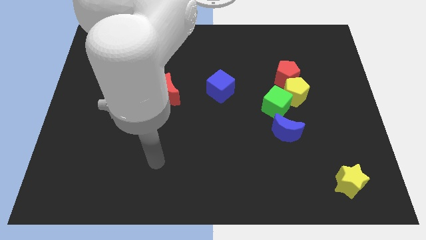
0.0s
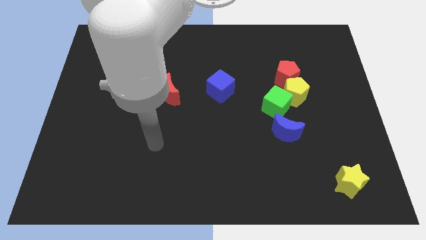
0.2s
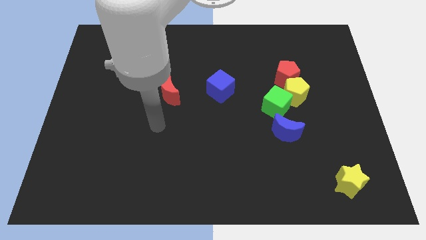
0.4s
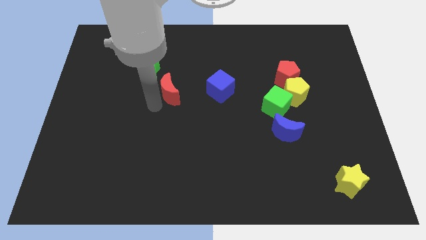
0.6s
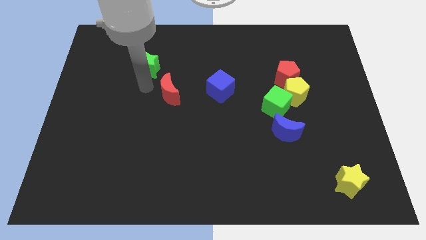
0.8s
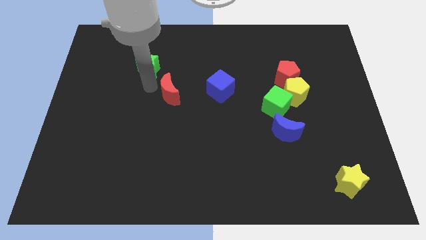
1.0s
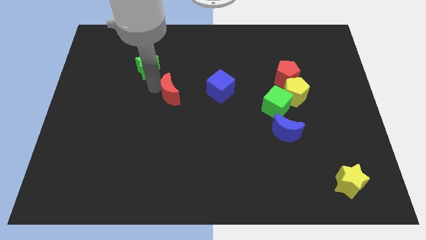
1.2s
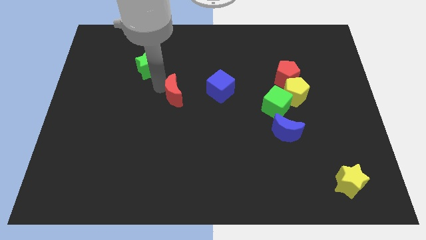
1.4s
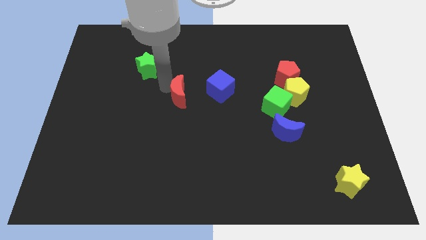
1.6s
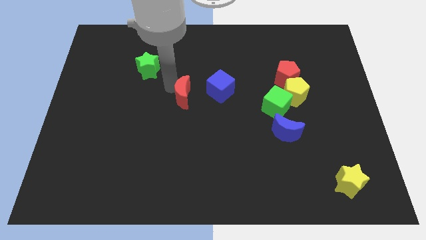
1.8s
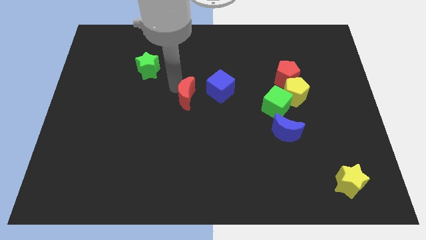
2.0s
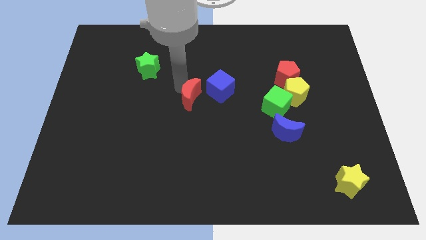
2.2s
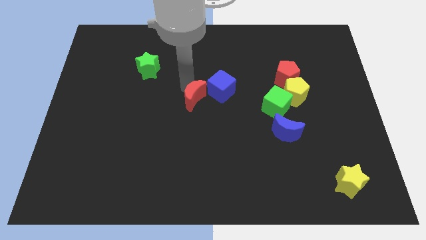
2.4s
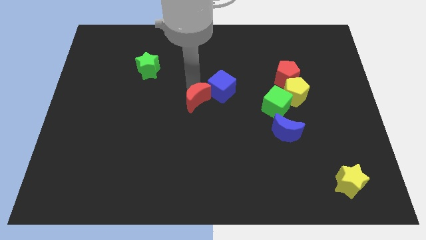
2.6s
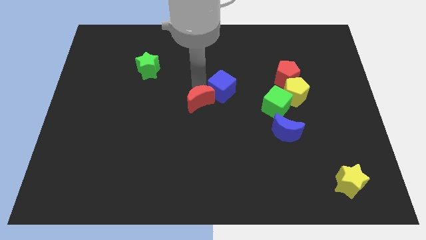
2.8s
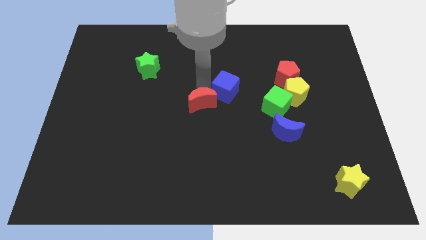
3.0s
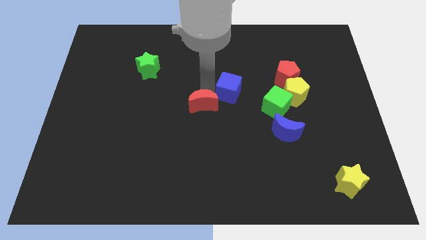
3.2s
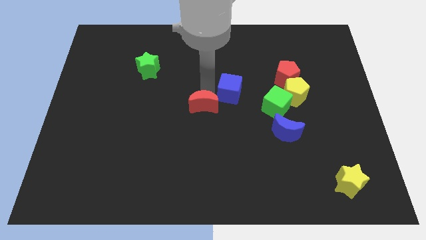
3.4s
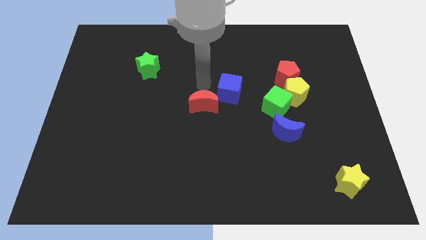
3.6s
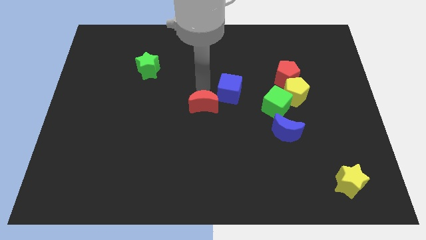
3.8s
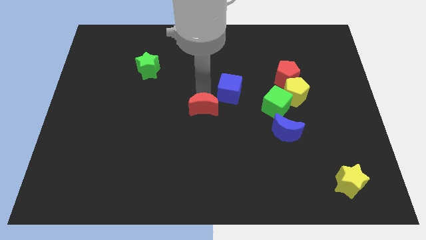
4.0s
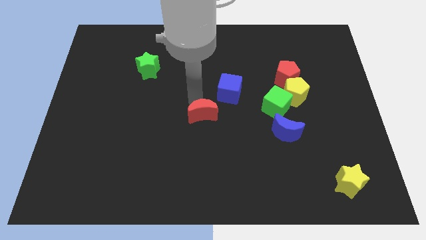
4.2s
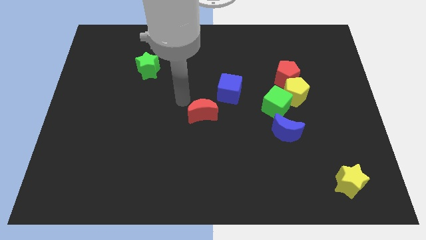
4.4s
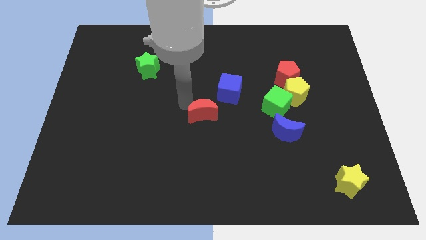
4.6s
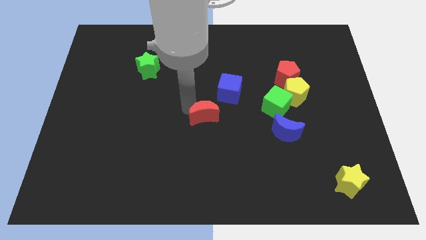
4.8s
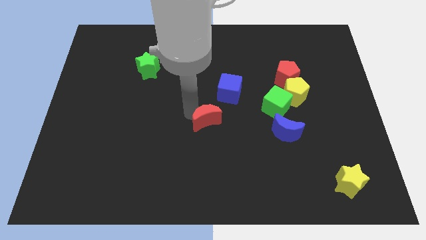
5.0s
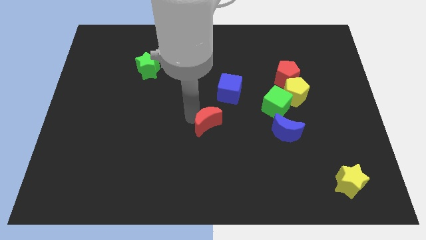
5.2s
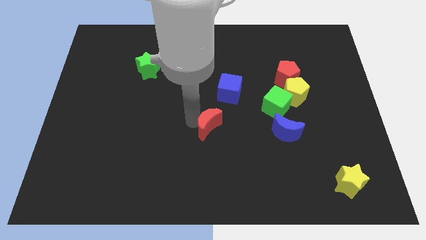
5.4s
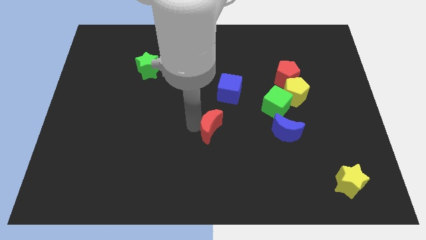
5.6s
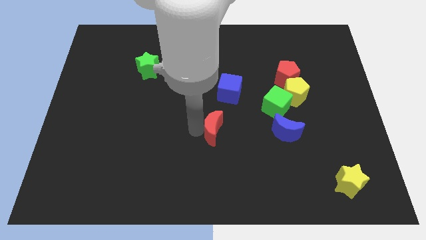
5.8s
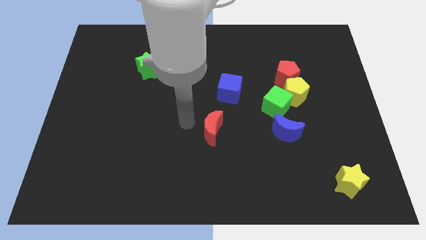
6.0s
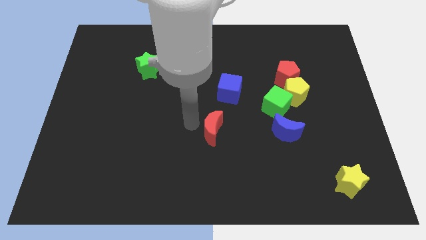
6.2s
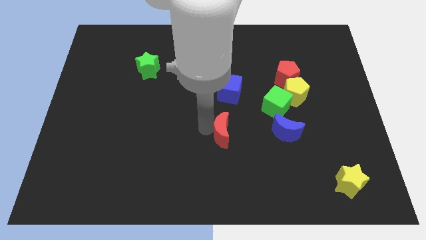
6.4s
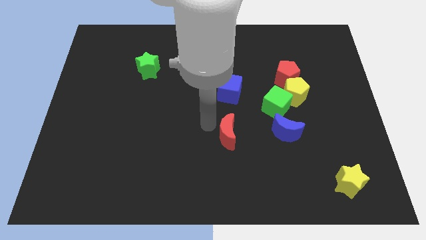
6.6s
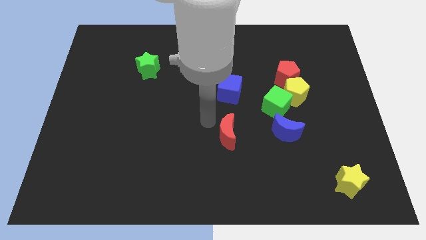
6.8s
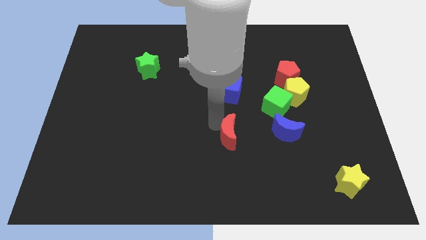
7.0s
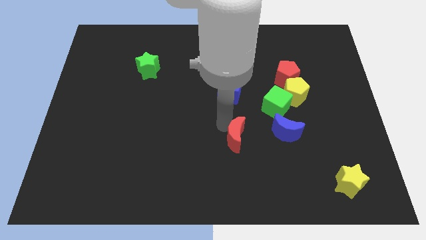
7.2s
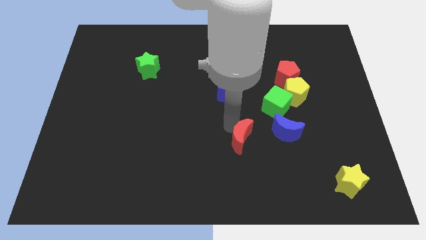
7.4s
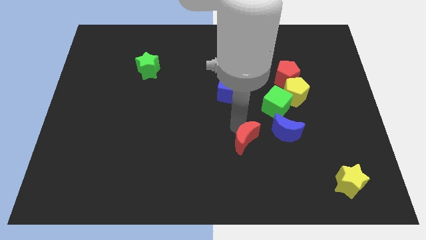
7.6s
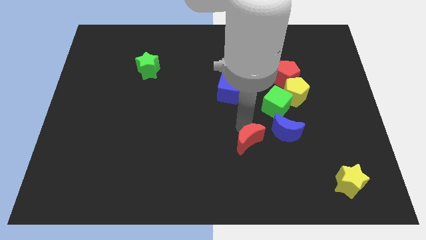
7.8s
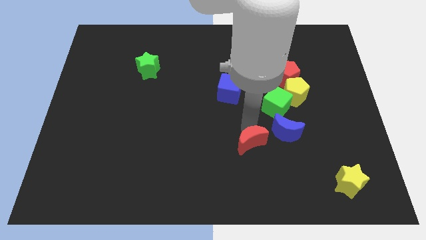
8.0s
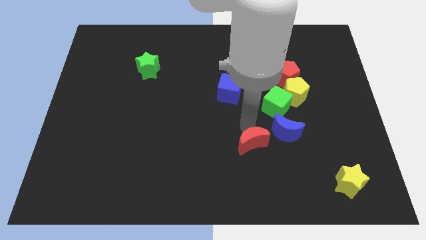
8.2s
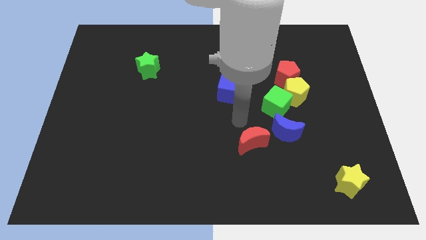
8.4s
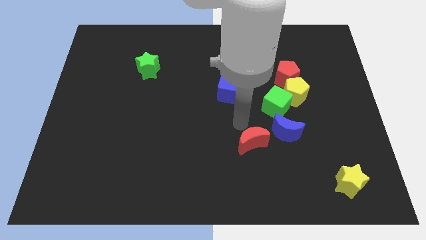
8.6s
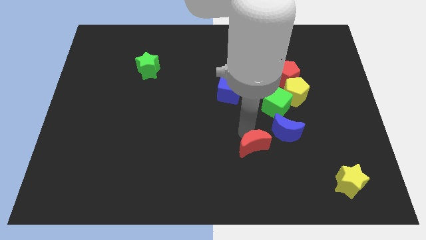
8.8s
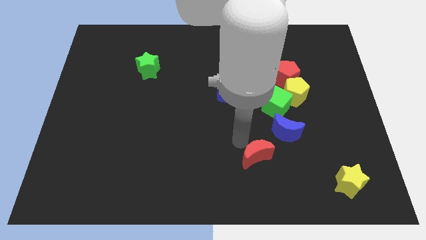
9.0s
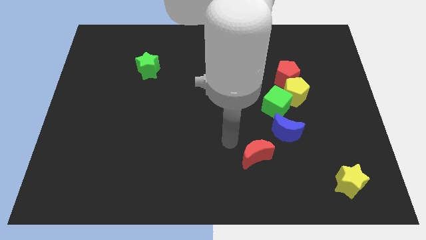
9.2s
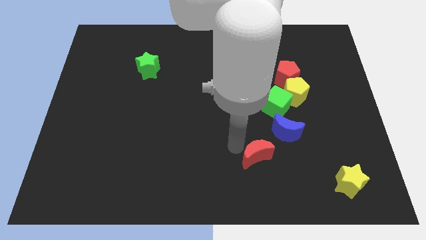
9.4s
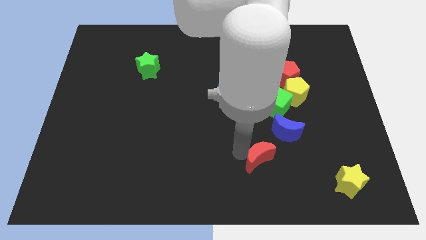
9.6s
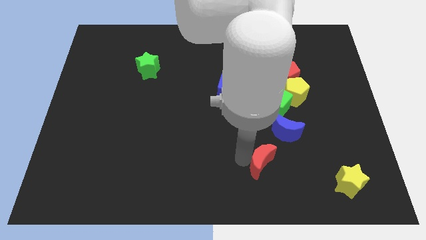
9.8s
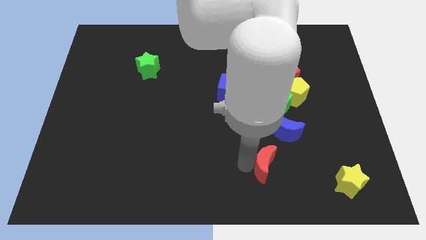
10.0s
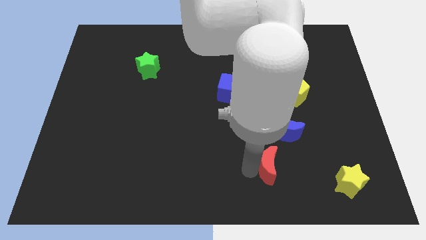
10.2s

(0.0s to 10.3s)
move the red moon to the bottom of the blue moon
